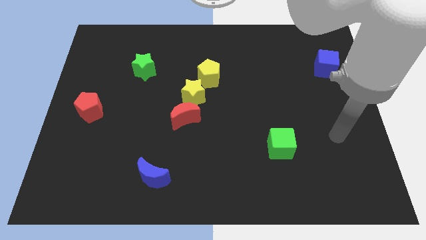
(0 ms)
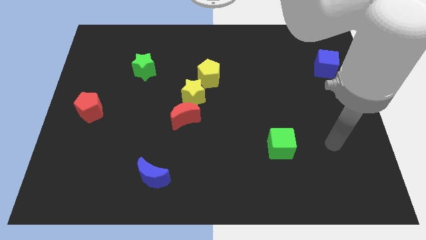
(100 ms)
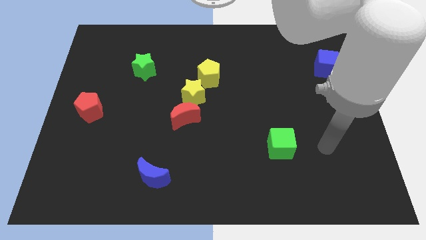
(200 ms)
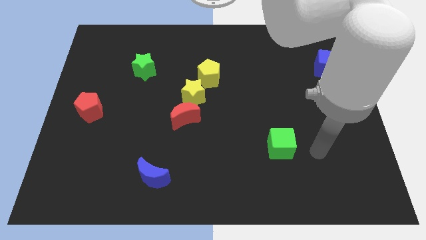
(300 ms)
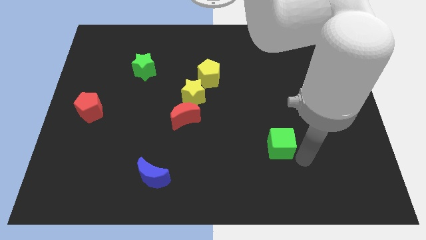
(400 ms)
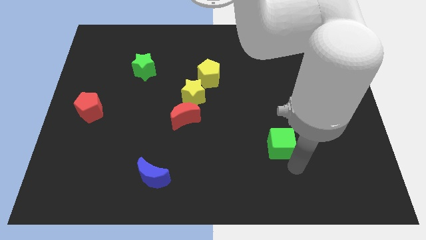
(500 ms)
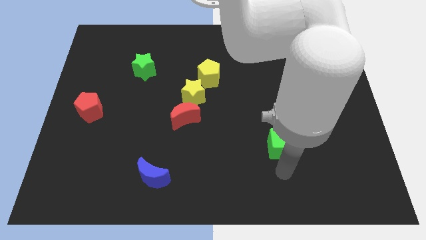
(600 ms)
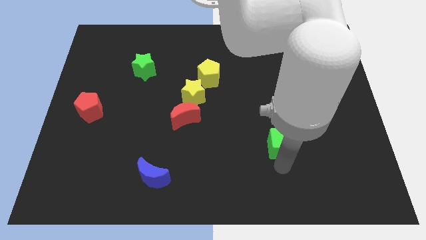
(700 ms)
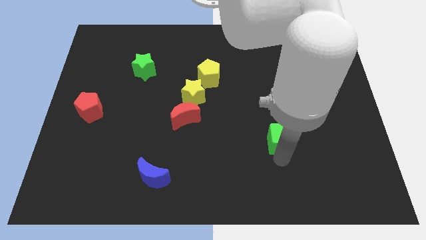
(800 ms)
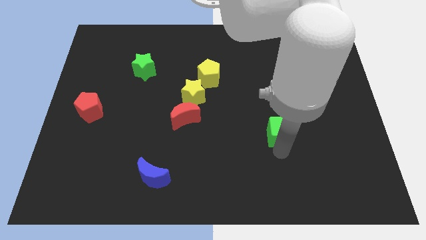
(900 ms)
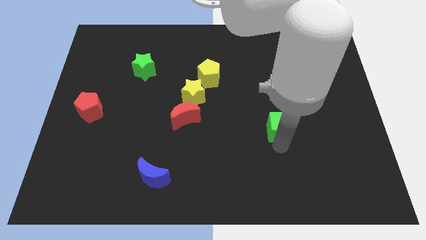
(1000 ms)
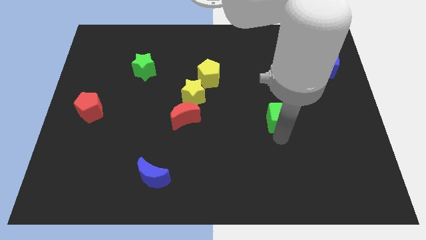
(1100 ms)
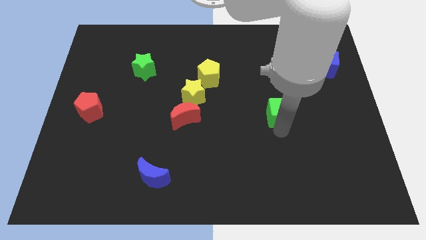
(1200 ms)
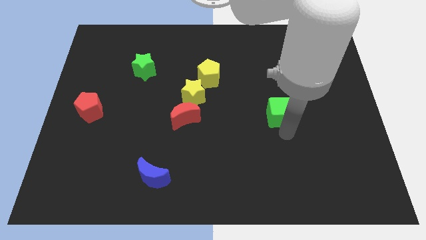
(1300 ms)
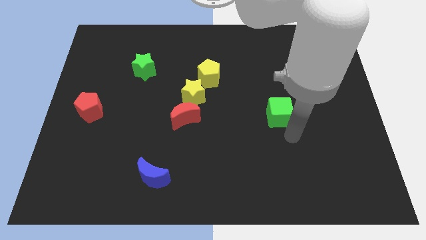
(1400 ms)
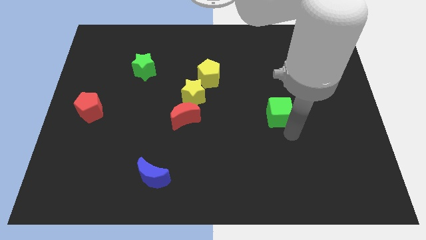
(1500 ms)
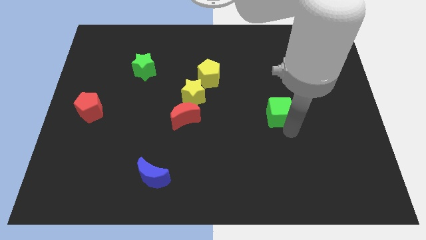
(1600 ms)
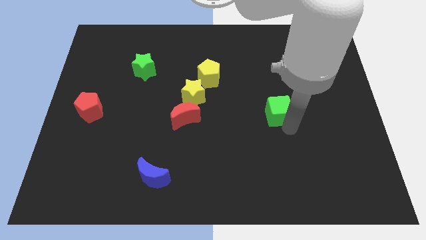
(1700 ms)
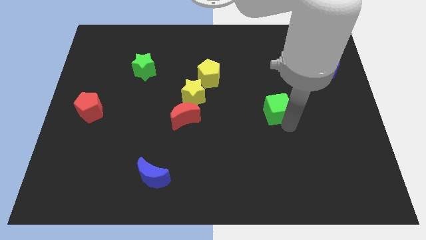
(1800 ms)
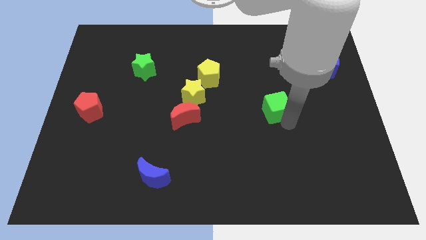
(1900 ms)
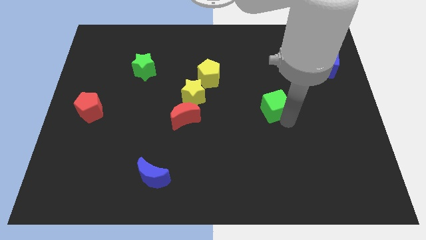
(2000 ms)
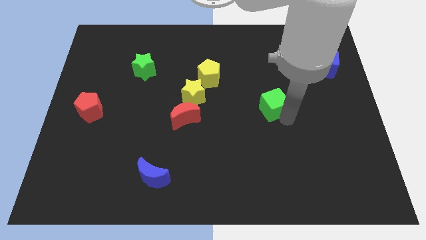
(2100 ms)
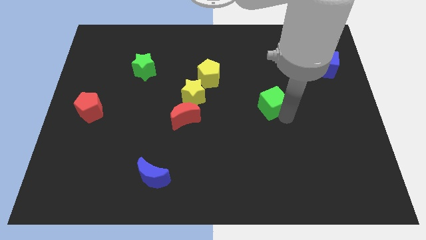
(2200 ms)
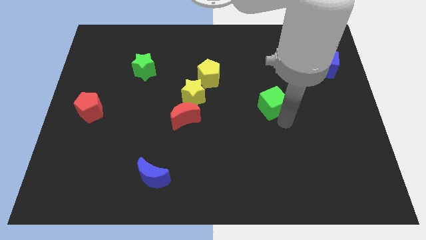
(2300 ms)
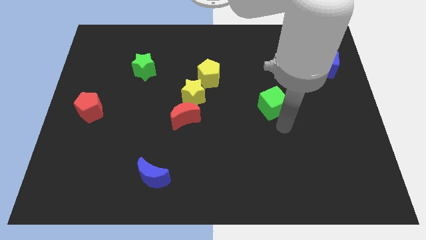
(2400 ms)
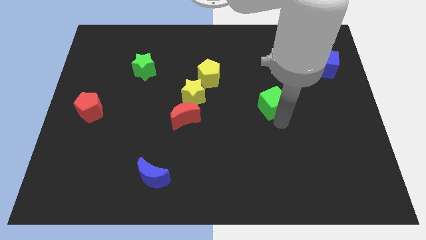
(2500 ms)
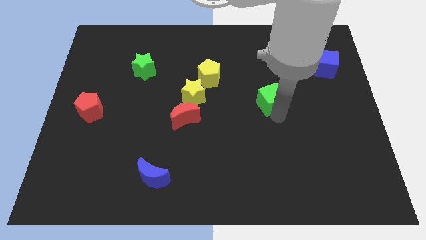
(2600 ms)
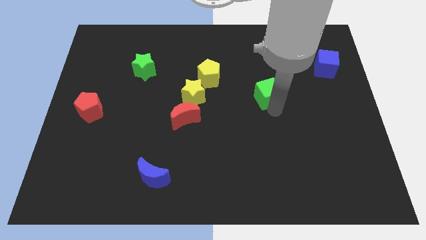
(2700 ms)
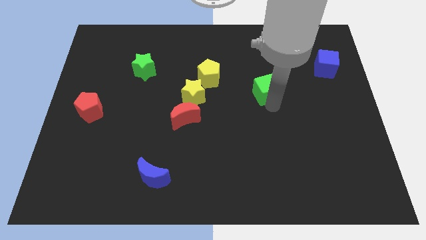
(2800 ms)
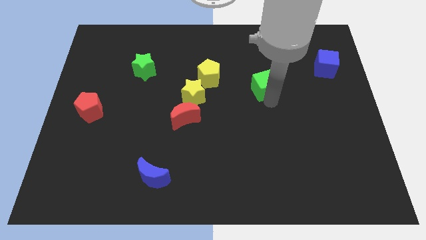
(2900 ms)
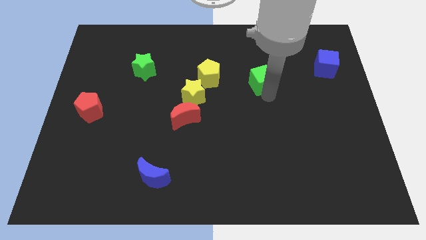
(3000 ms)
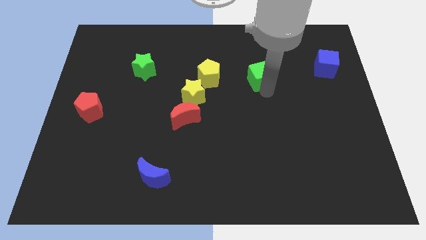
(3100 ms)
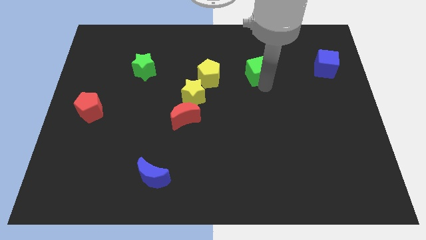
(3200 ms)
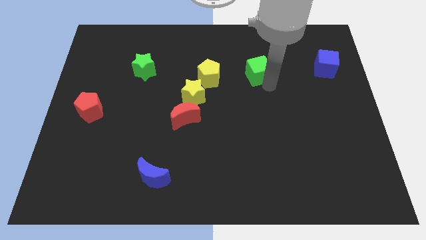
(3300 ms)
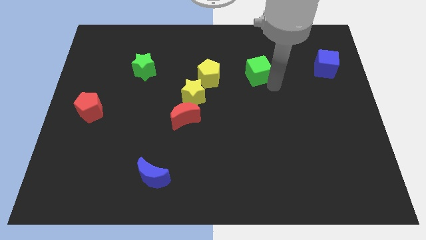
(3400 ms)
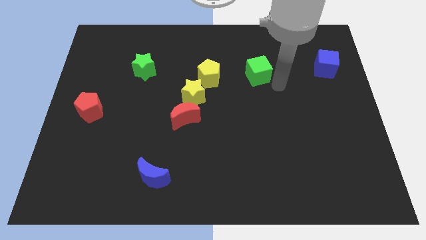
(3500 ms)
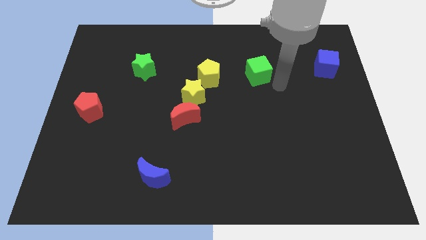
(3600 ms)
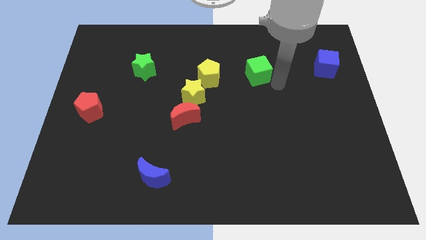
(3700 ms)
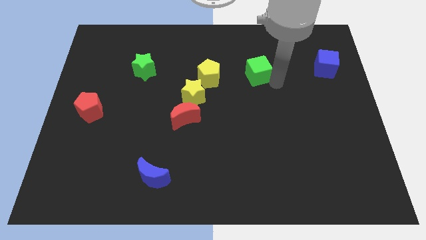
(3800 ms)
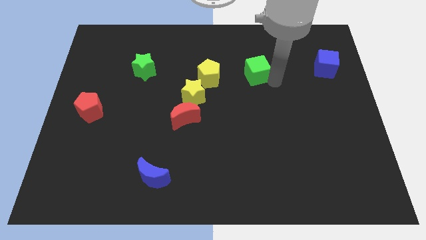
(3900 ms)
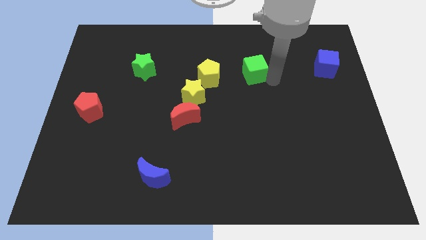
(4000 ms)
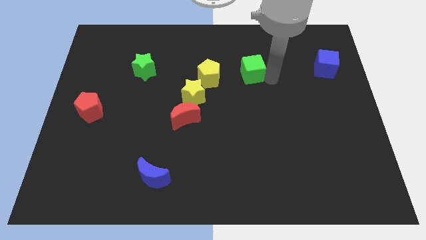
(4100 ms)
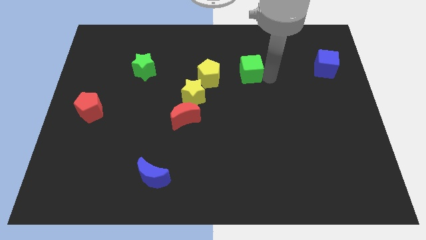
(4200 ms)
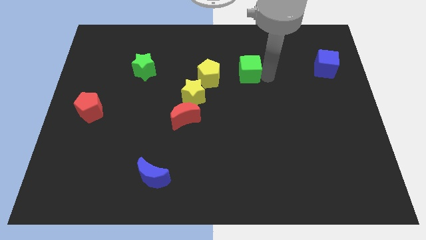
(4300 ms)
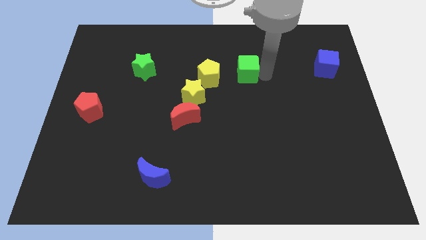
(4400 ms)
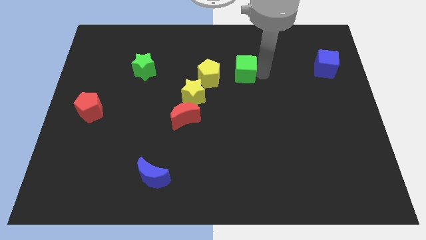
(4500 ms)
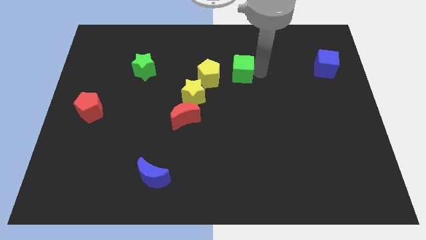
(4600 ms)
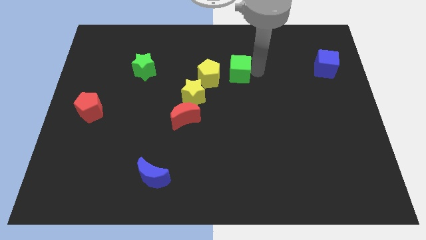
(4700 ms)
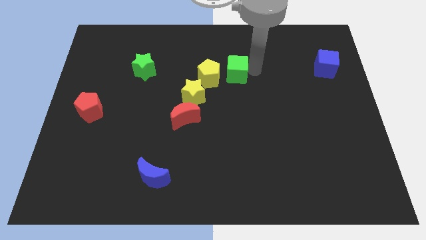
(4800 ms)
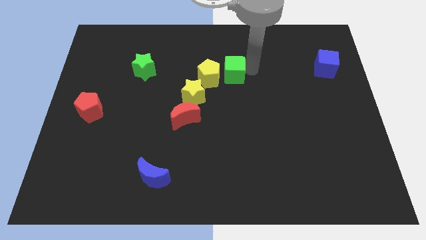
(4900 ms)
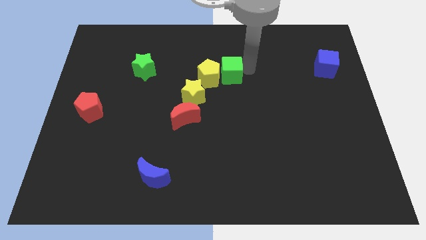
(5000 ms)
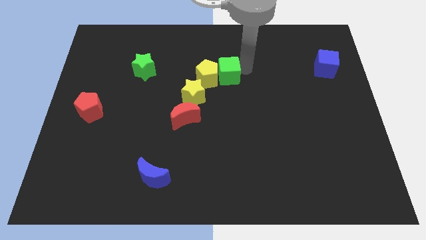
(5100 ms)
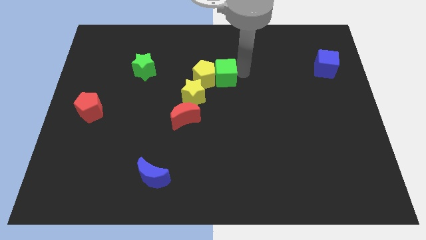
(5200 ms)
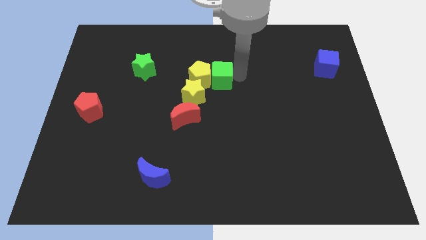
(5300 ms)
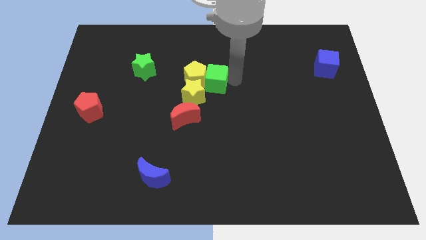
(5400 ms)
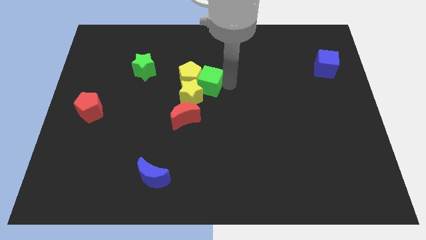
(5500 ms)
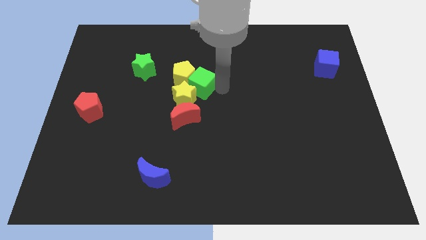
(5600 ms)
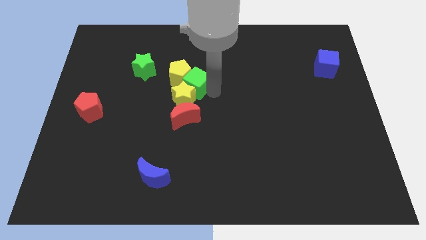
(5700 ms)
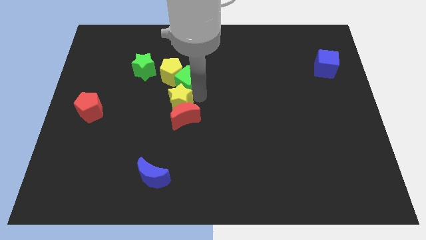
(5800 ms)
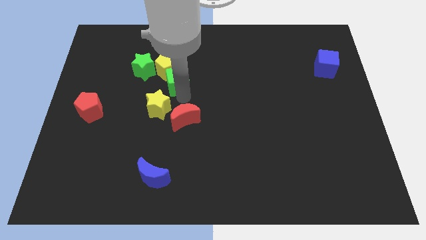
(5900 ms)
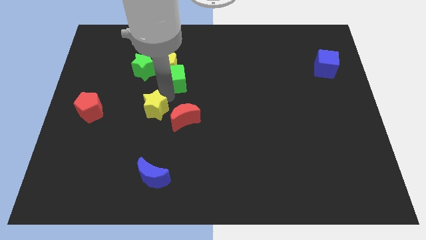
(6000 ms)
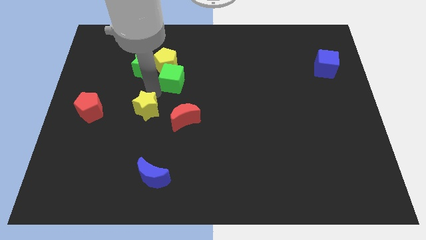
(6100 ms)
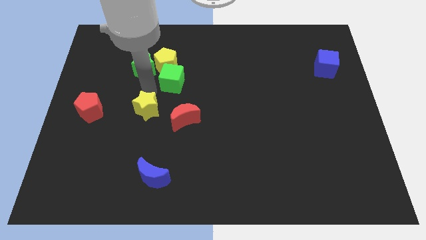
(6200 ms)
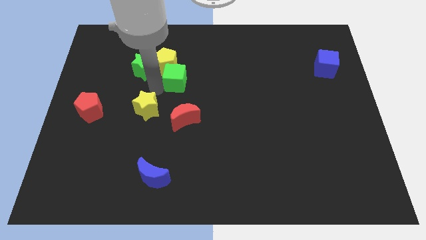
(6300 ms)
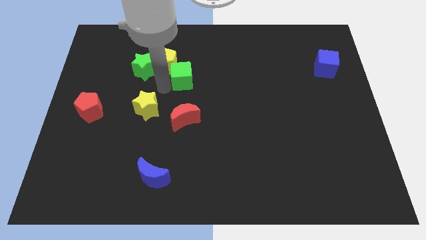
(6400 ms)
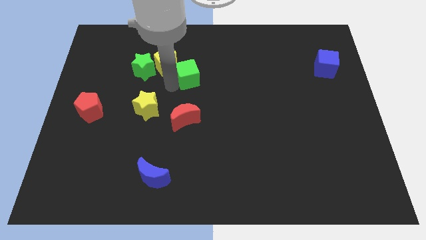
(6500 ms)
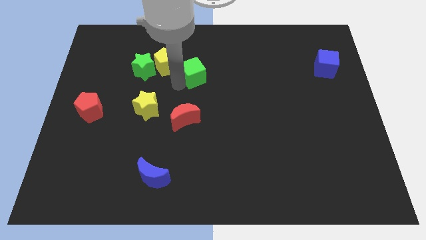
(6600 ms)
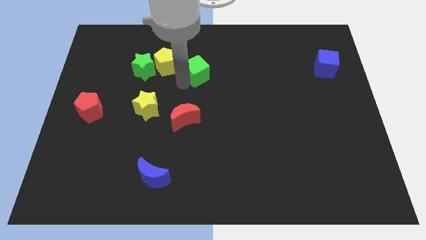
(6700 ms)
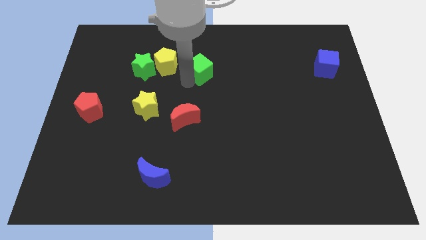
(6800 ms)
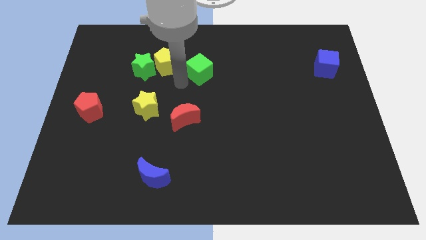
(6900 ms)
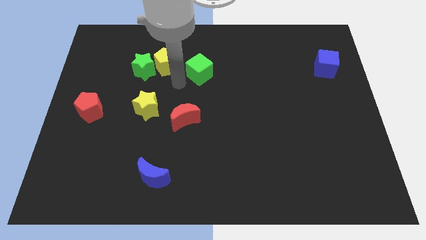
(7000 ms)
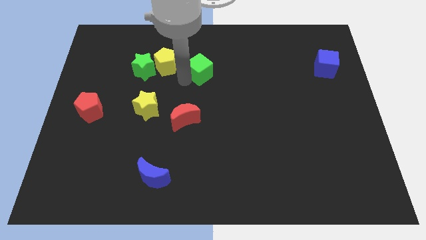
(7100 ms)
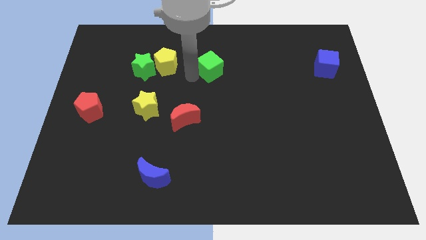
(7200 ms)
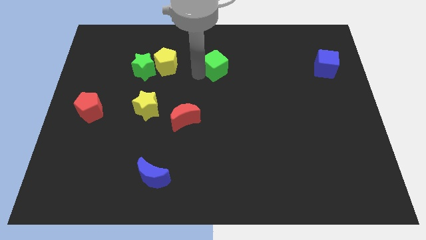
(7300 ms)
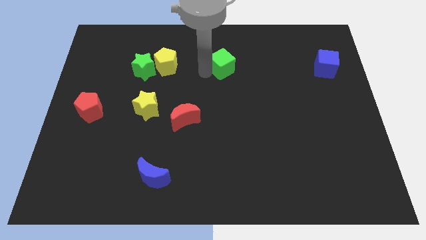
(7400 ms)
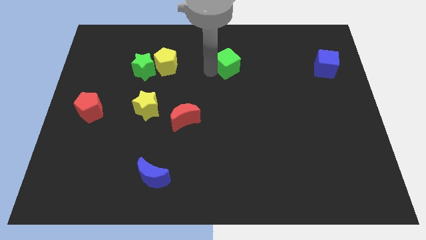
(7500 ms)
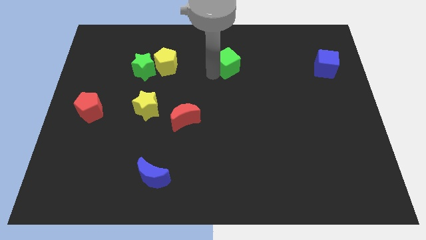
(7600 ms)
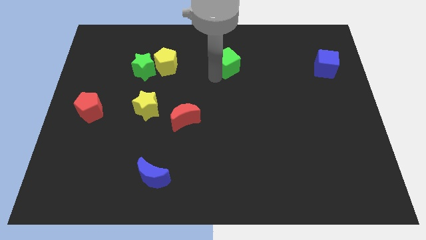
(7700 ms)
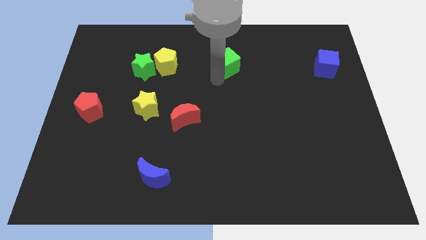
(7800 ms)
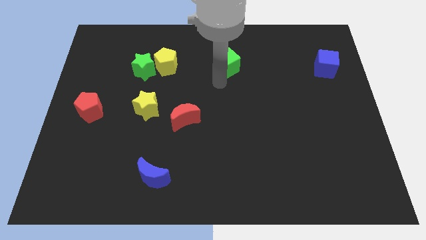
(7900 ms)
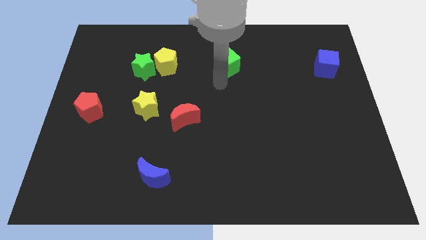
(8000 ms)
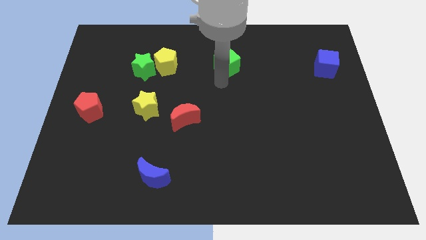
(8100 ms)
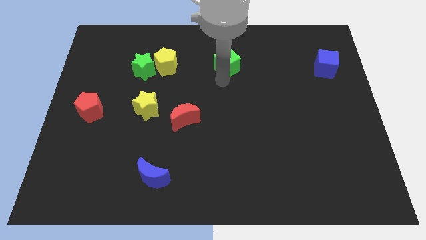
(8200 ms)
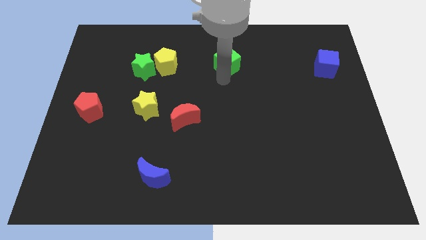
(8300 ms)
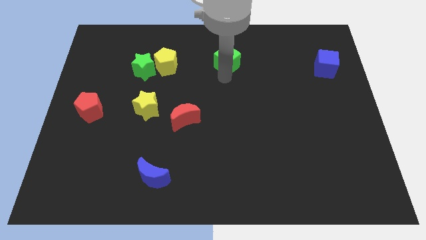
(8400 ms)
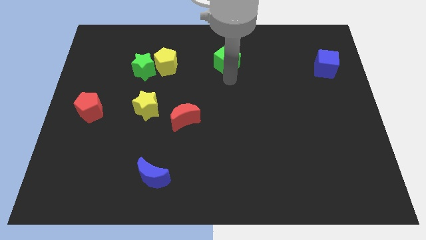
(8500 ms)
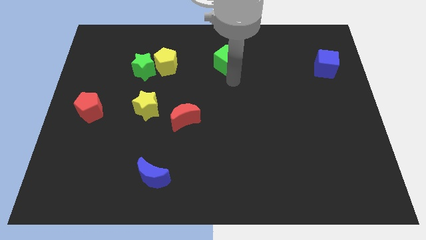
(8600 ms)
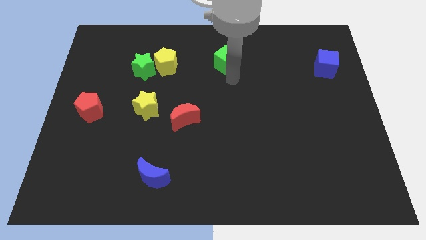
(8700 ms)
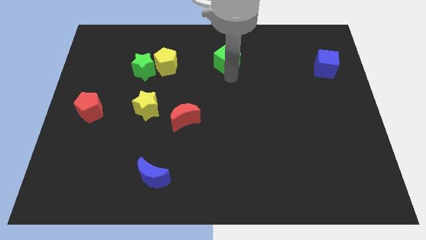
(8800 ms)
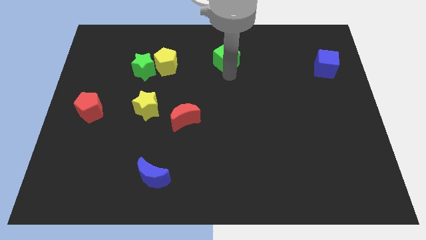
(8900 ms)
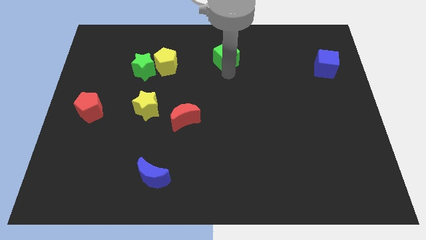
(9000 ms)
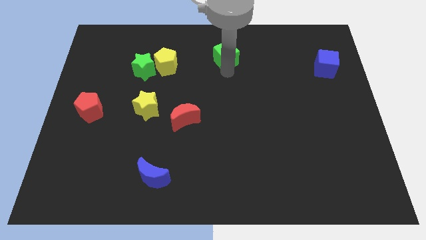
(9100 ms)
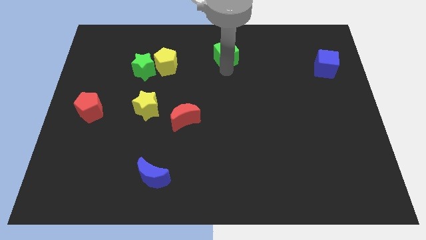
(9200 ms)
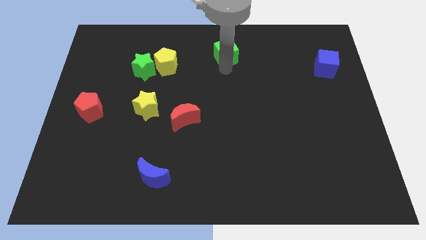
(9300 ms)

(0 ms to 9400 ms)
put the green cube to the top
